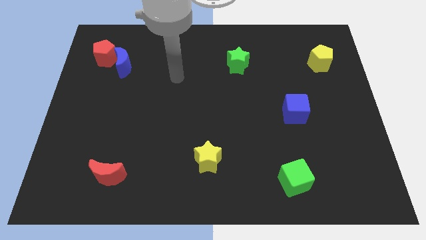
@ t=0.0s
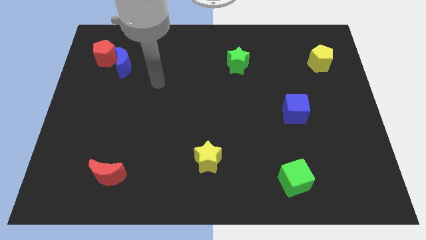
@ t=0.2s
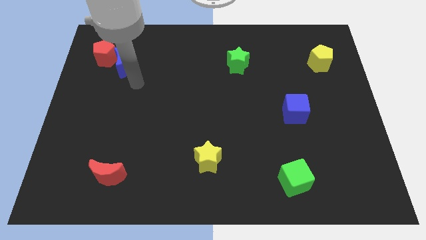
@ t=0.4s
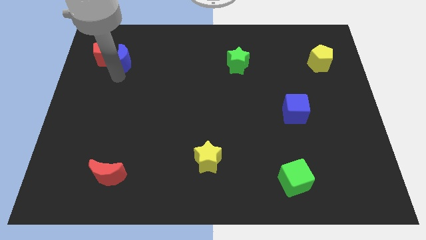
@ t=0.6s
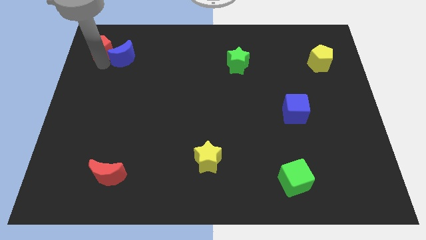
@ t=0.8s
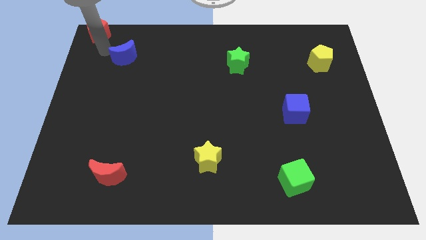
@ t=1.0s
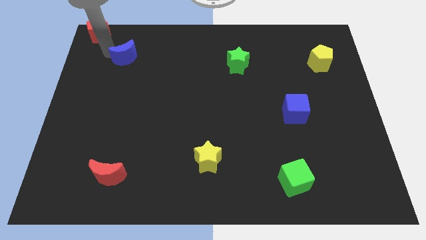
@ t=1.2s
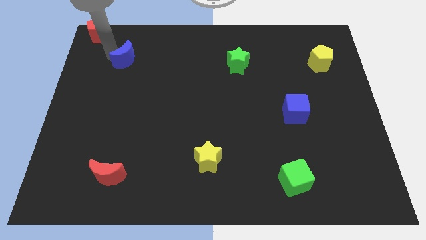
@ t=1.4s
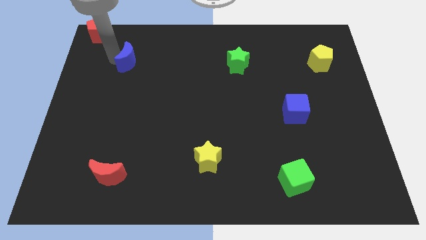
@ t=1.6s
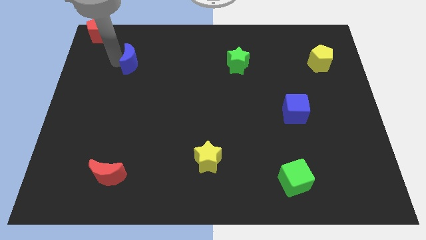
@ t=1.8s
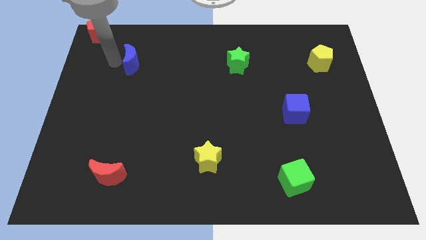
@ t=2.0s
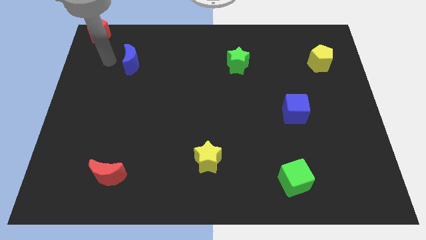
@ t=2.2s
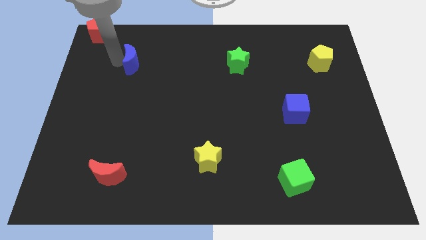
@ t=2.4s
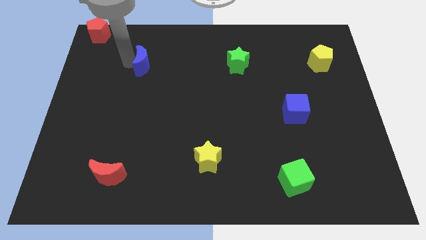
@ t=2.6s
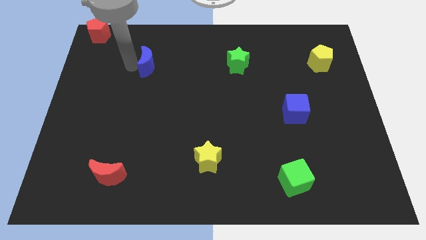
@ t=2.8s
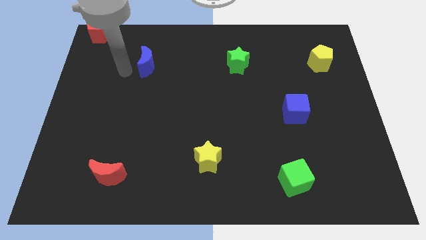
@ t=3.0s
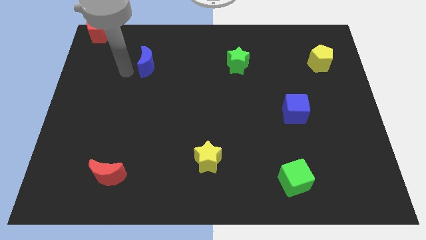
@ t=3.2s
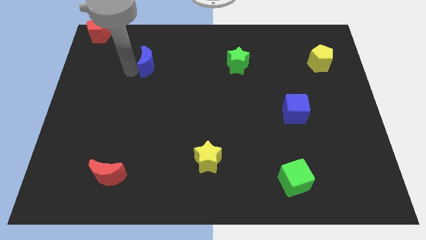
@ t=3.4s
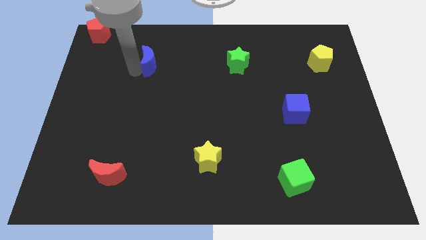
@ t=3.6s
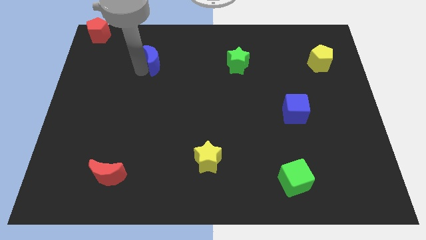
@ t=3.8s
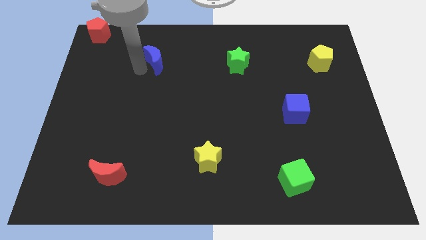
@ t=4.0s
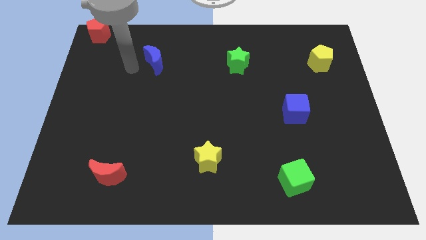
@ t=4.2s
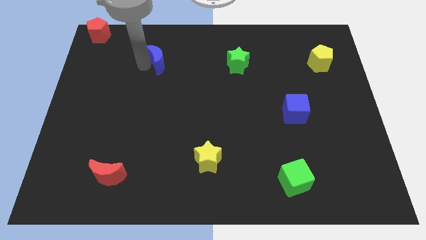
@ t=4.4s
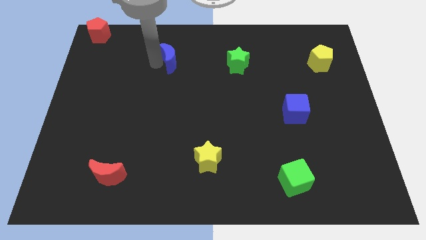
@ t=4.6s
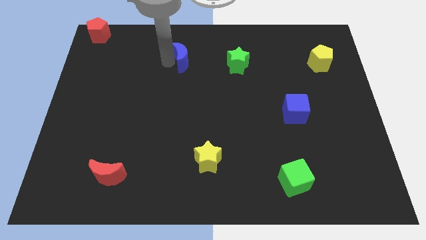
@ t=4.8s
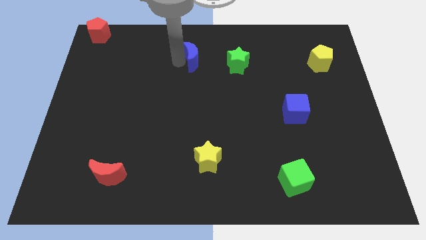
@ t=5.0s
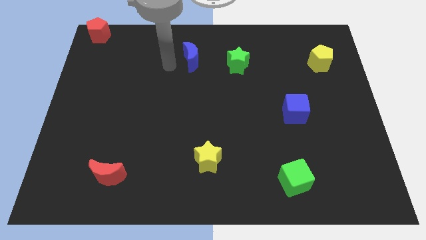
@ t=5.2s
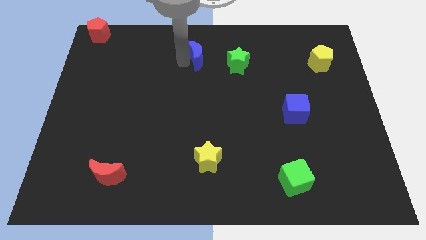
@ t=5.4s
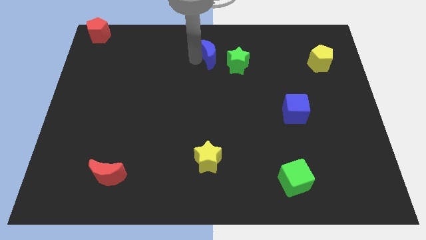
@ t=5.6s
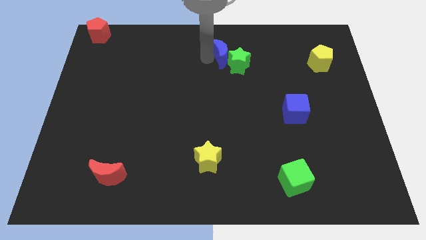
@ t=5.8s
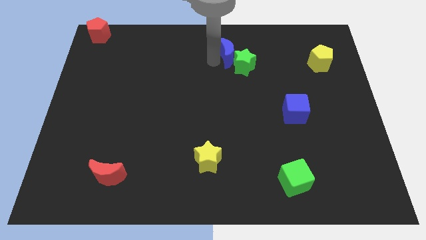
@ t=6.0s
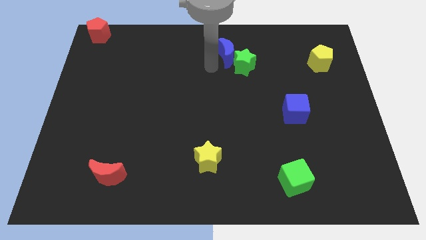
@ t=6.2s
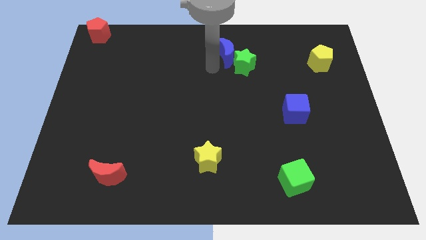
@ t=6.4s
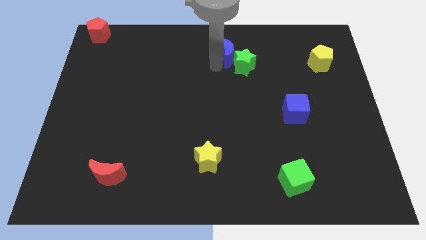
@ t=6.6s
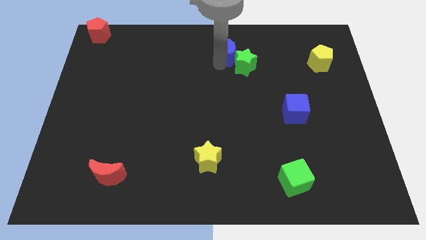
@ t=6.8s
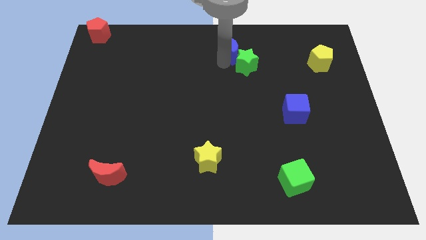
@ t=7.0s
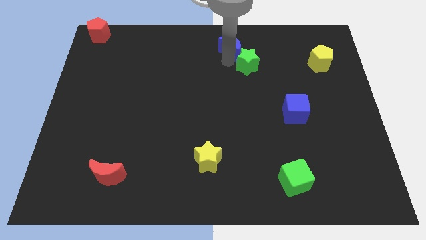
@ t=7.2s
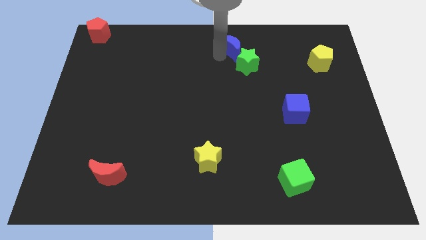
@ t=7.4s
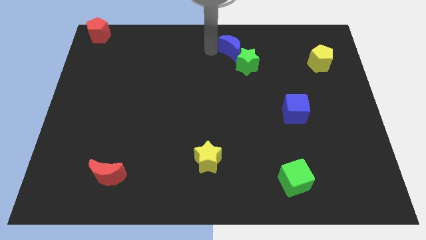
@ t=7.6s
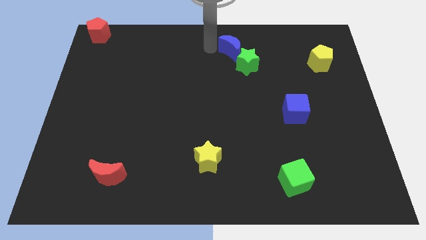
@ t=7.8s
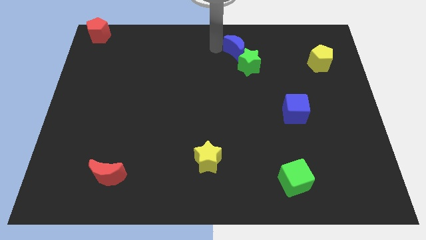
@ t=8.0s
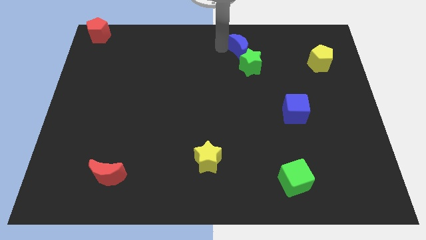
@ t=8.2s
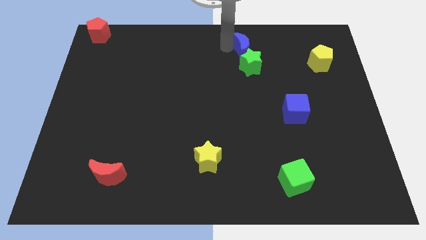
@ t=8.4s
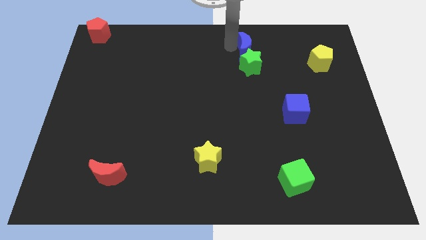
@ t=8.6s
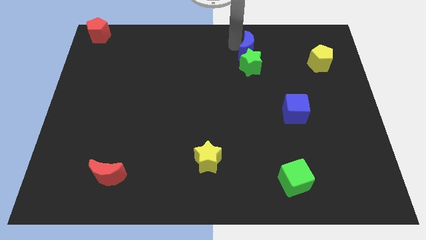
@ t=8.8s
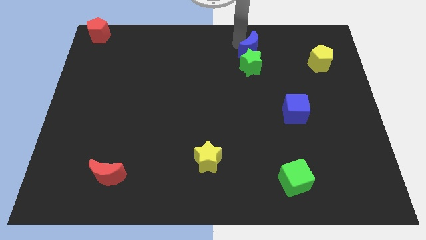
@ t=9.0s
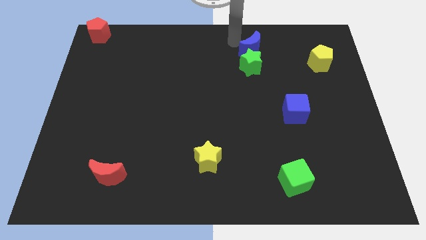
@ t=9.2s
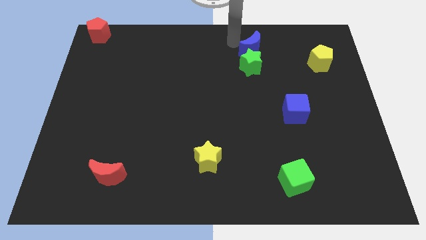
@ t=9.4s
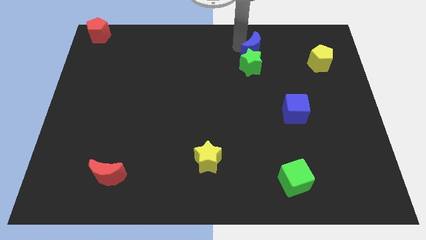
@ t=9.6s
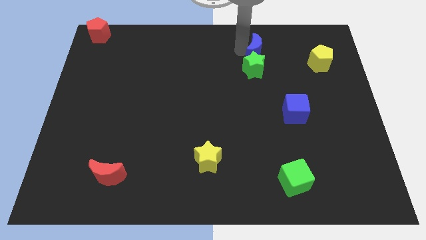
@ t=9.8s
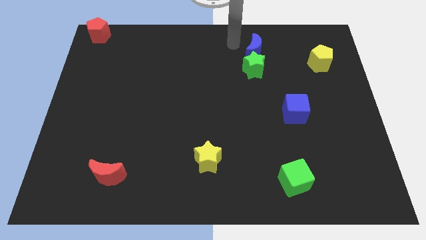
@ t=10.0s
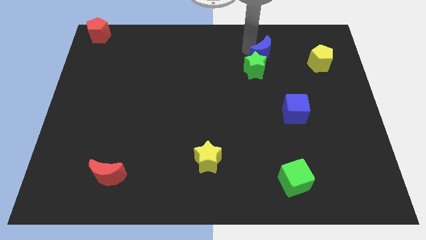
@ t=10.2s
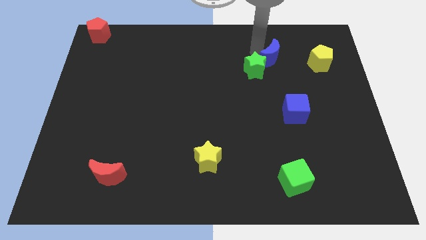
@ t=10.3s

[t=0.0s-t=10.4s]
move the blue moon just right of the green star

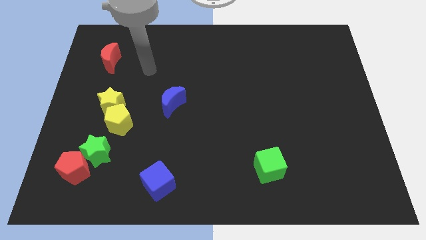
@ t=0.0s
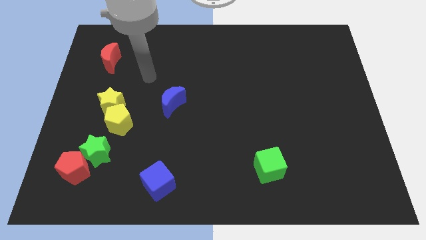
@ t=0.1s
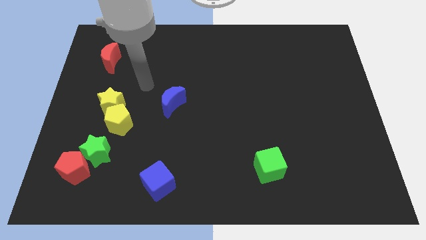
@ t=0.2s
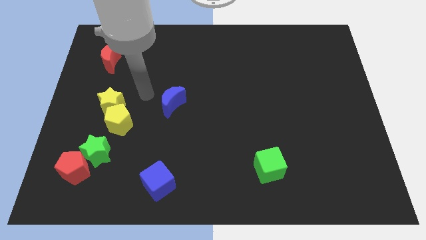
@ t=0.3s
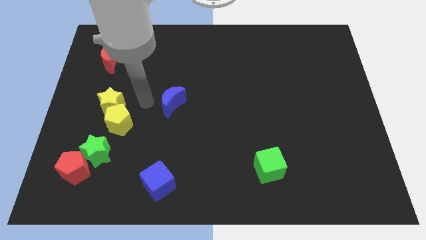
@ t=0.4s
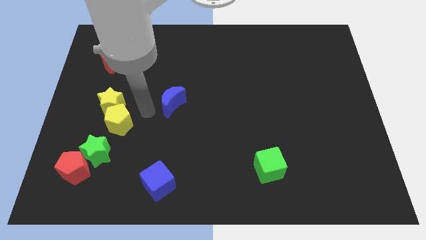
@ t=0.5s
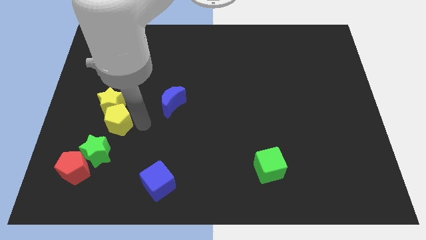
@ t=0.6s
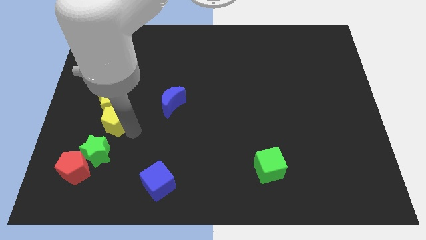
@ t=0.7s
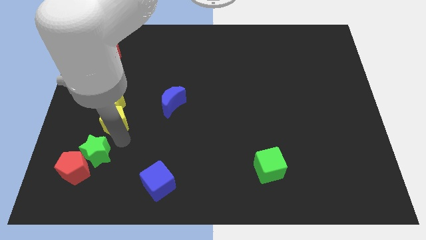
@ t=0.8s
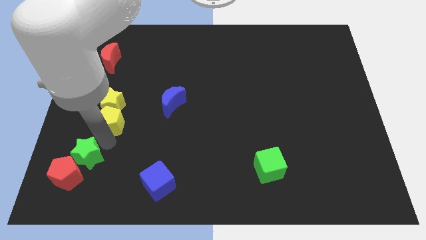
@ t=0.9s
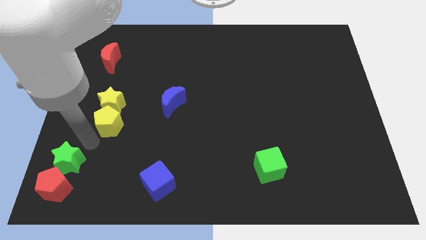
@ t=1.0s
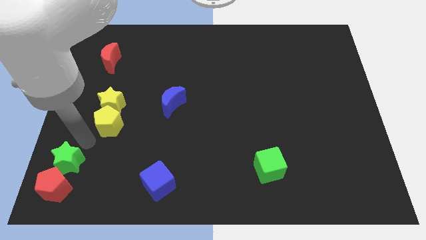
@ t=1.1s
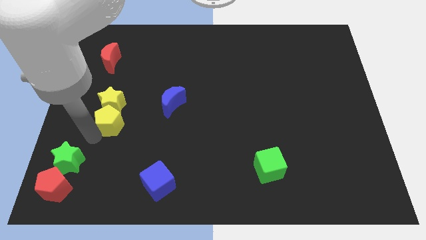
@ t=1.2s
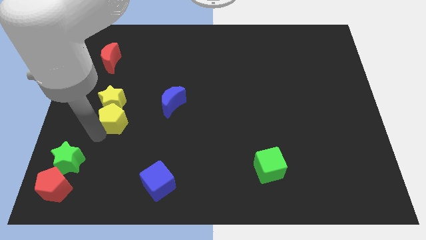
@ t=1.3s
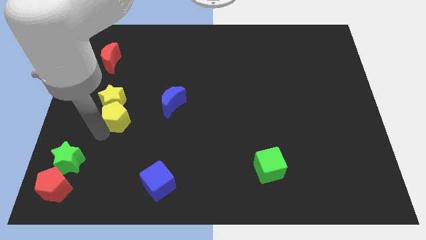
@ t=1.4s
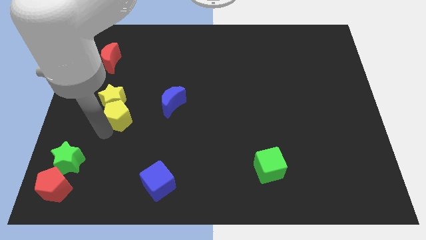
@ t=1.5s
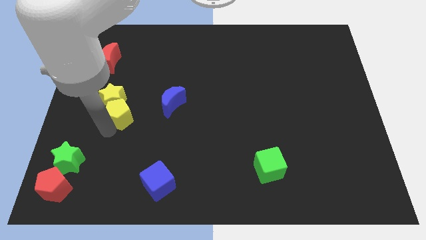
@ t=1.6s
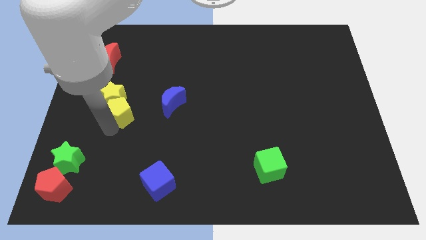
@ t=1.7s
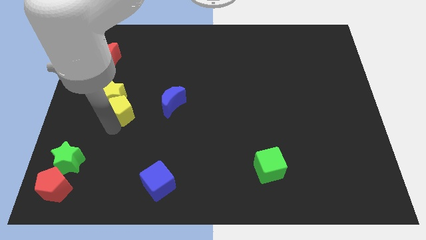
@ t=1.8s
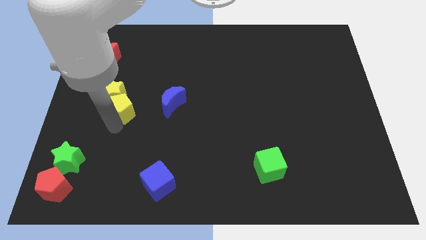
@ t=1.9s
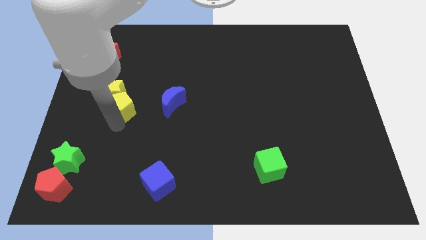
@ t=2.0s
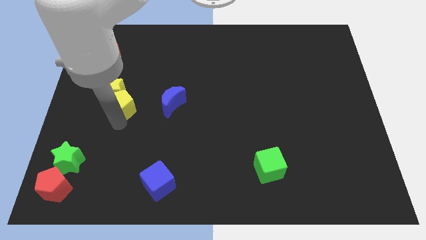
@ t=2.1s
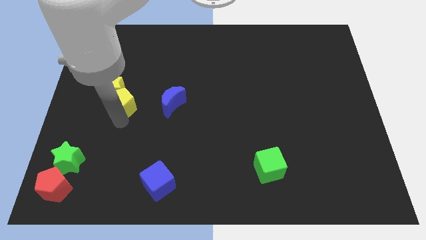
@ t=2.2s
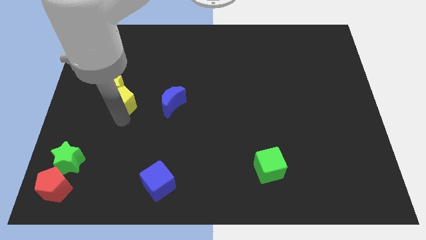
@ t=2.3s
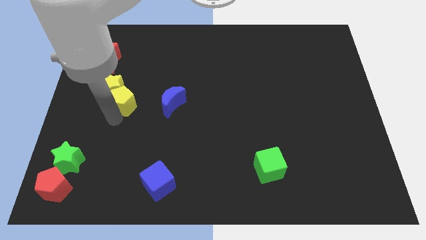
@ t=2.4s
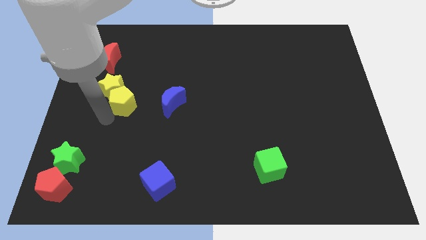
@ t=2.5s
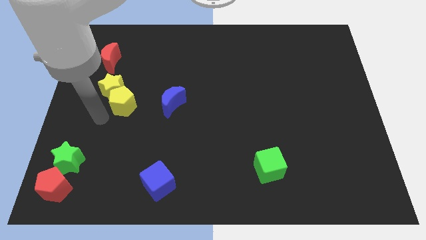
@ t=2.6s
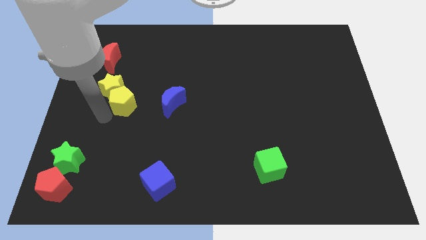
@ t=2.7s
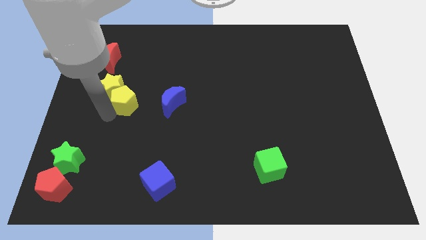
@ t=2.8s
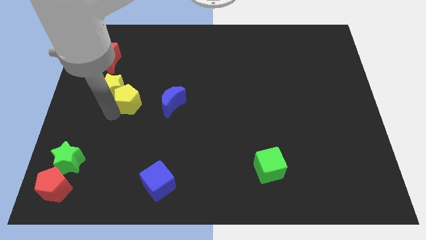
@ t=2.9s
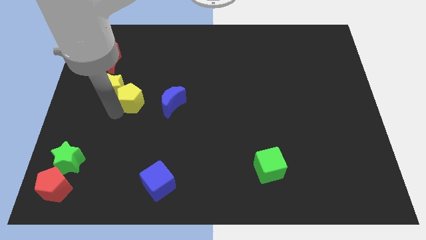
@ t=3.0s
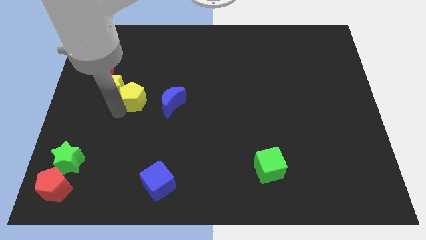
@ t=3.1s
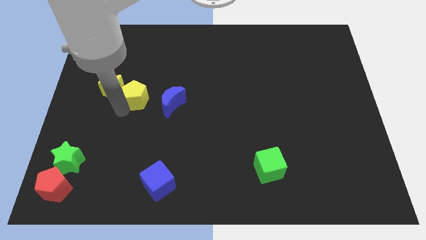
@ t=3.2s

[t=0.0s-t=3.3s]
move the yellow pentagon to the top left side of the blue moon
